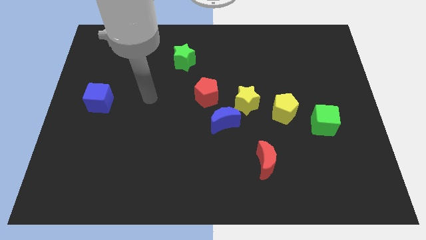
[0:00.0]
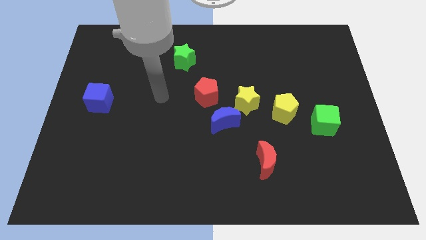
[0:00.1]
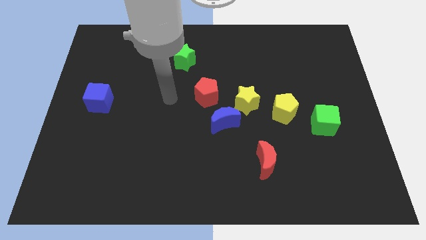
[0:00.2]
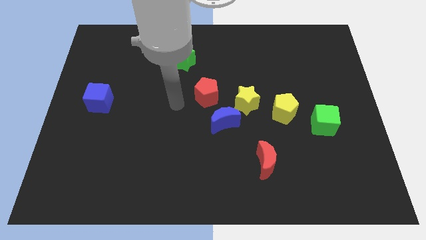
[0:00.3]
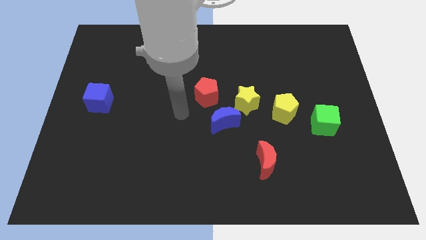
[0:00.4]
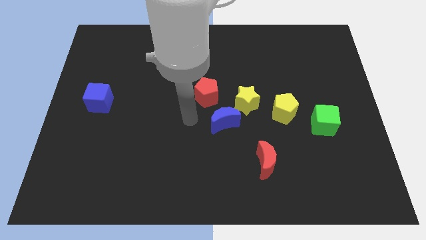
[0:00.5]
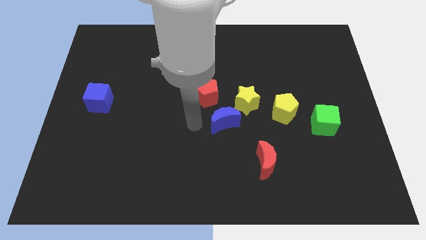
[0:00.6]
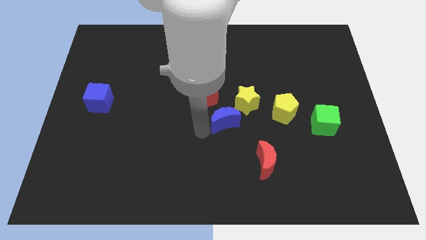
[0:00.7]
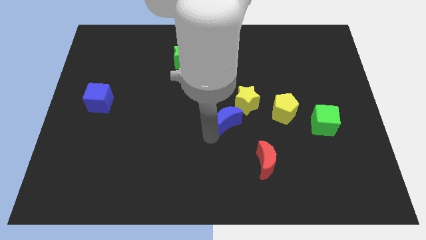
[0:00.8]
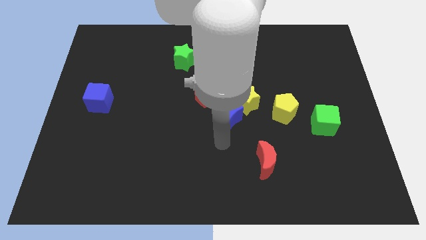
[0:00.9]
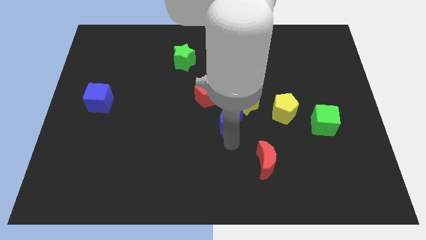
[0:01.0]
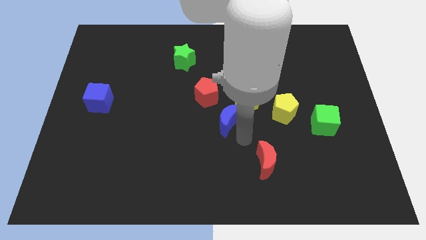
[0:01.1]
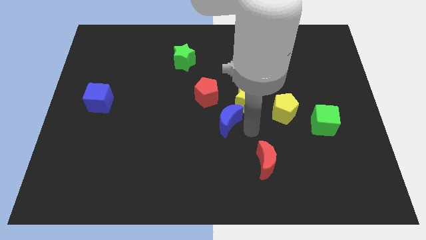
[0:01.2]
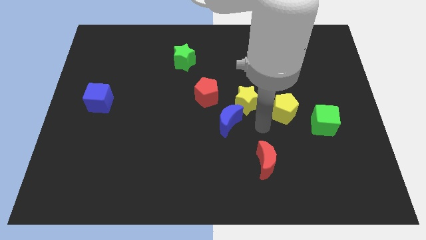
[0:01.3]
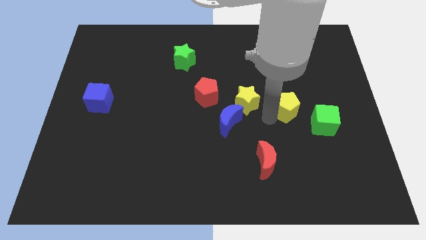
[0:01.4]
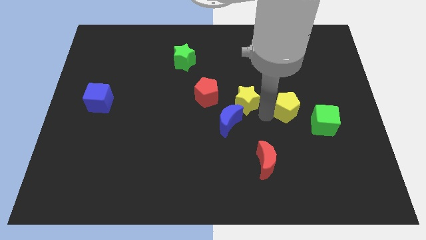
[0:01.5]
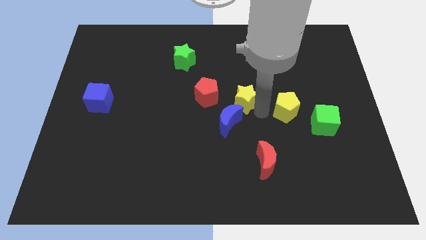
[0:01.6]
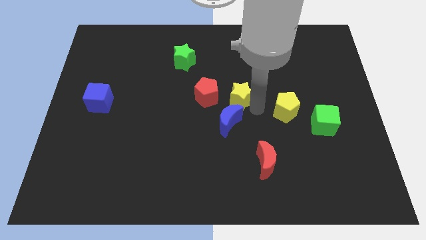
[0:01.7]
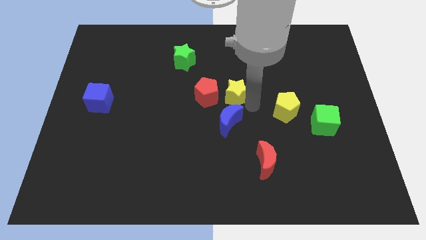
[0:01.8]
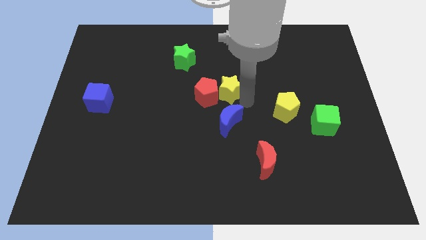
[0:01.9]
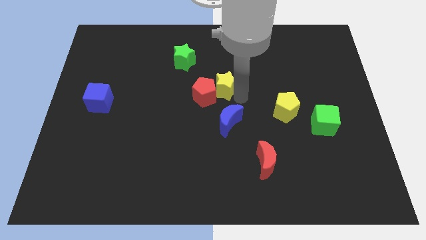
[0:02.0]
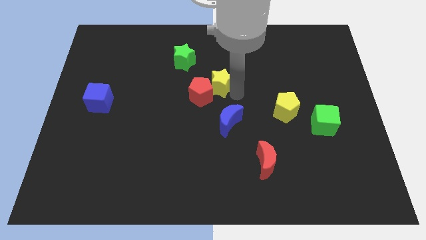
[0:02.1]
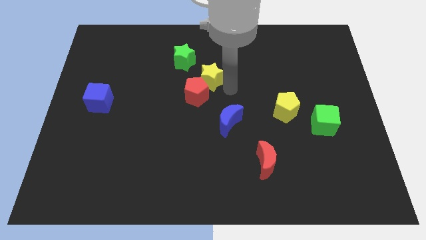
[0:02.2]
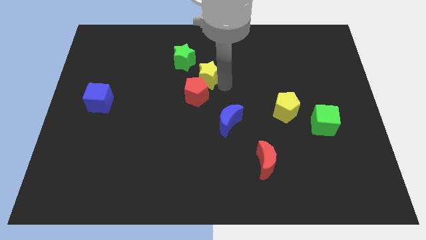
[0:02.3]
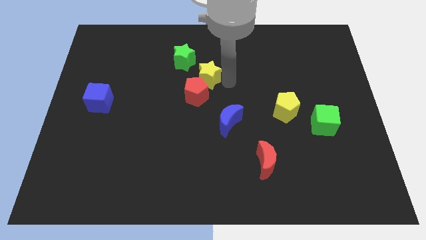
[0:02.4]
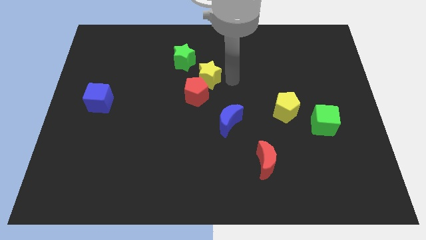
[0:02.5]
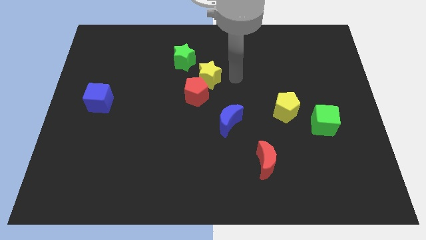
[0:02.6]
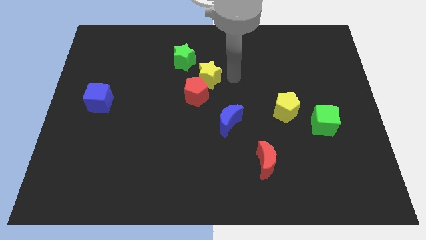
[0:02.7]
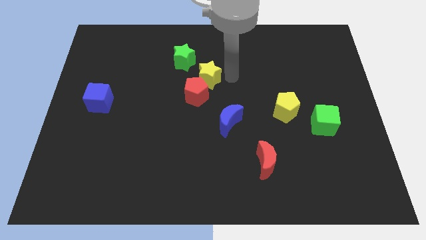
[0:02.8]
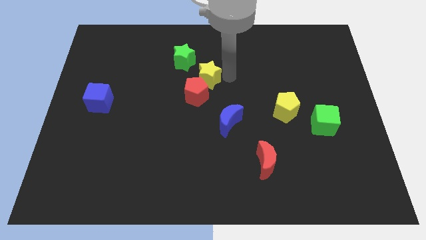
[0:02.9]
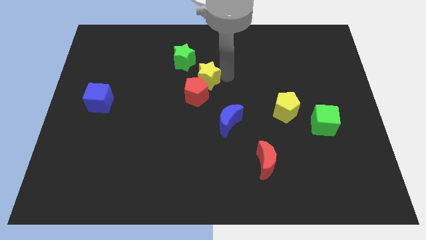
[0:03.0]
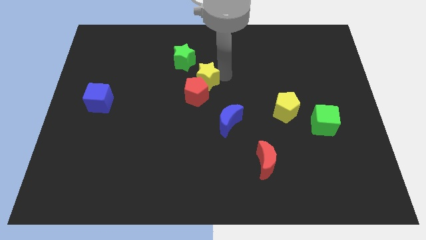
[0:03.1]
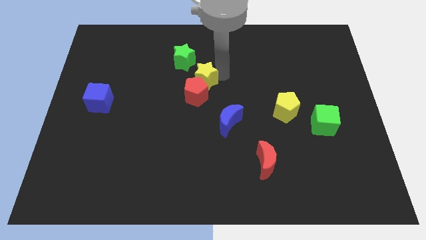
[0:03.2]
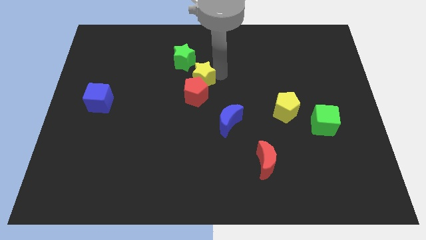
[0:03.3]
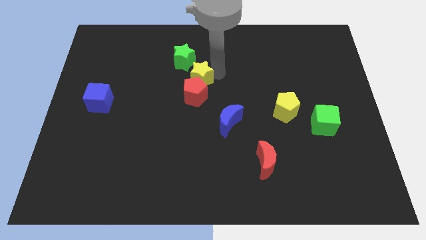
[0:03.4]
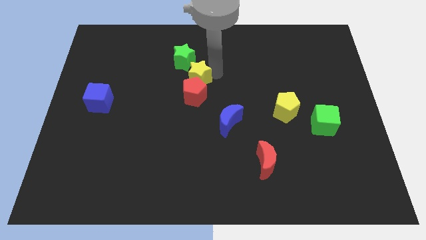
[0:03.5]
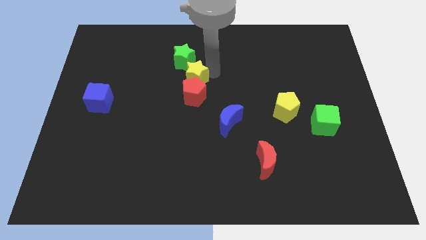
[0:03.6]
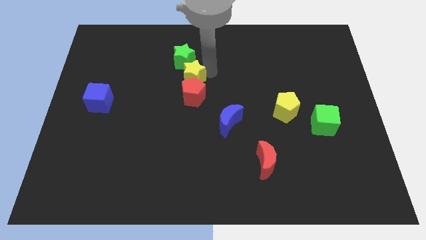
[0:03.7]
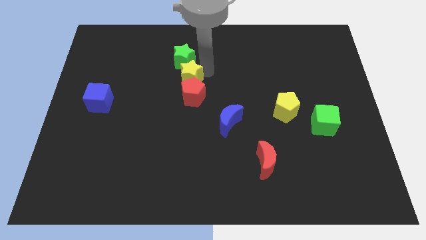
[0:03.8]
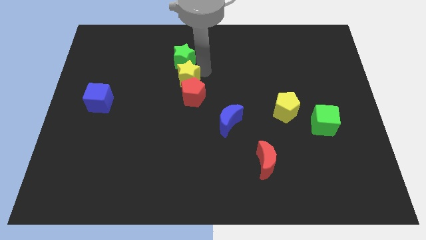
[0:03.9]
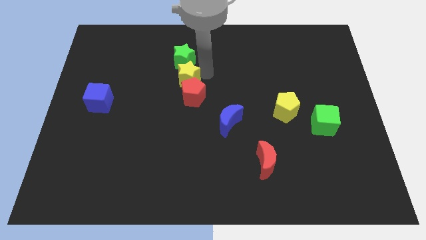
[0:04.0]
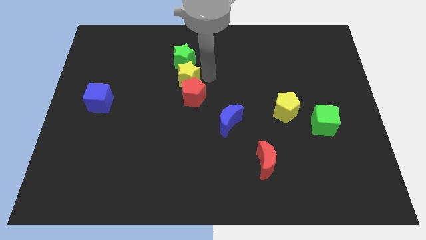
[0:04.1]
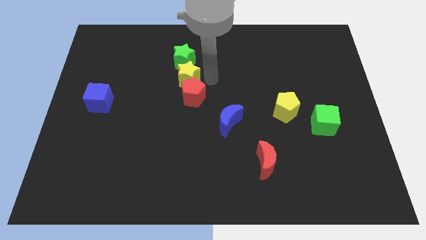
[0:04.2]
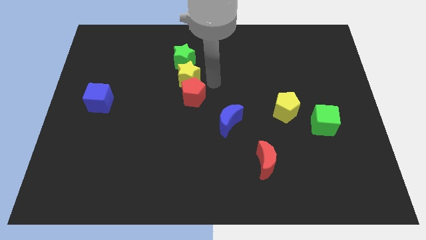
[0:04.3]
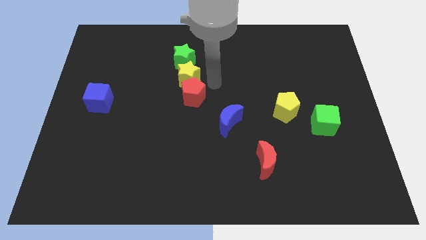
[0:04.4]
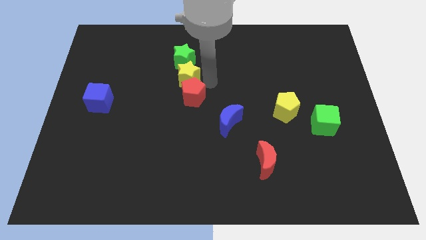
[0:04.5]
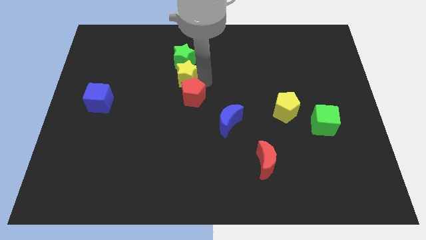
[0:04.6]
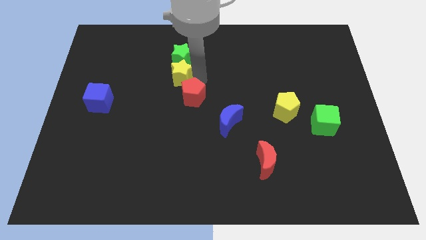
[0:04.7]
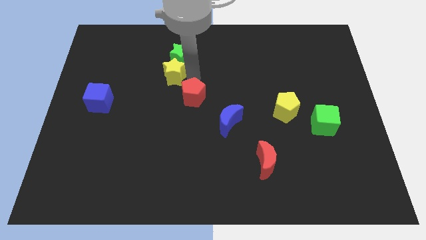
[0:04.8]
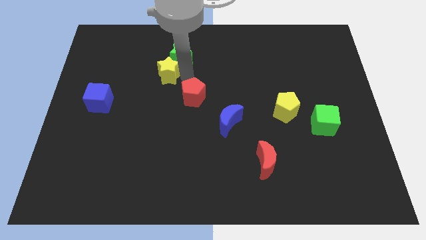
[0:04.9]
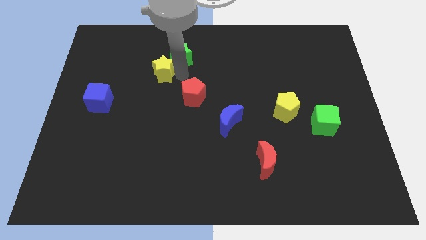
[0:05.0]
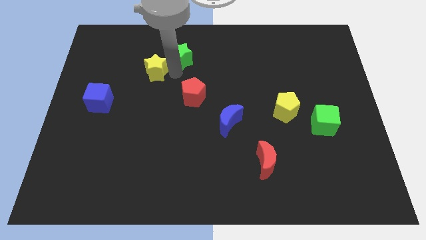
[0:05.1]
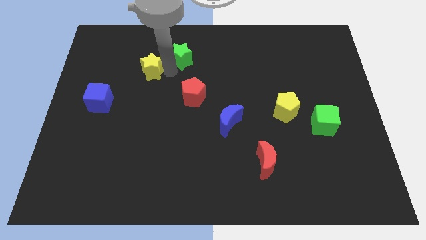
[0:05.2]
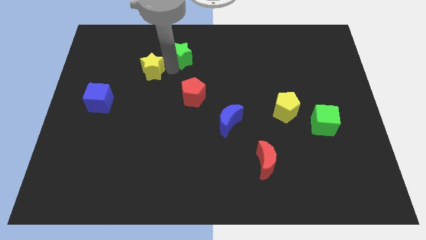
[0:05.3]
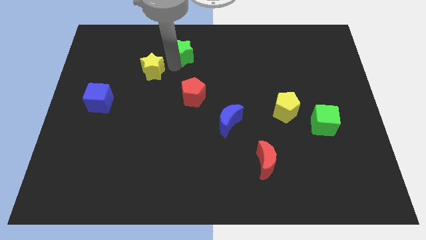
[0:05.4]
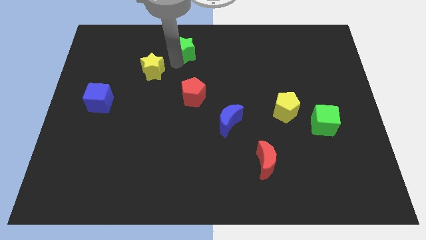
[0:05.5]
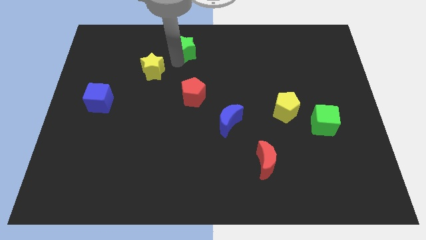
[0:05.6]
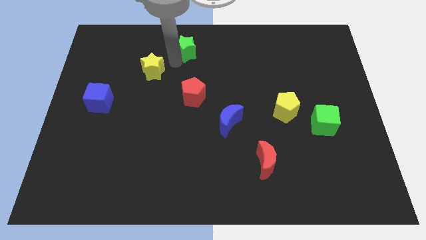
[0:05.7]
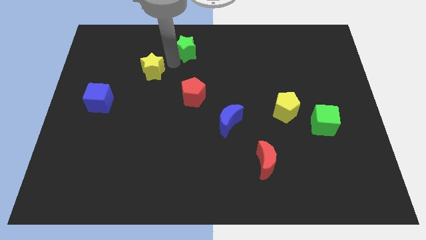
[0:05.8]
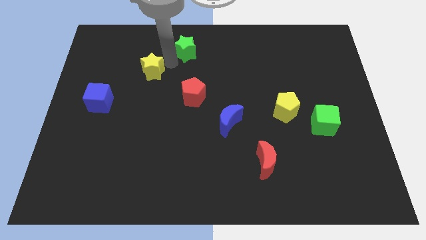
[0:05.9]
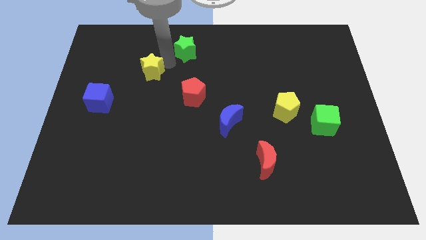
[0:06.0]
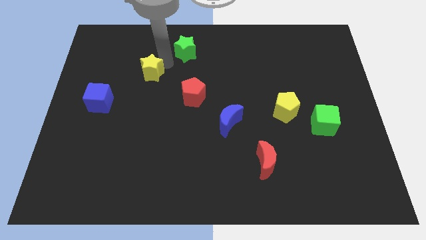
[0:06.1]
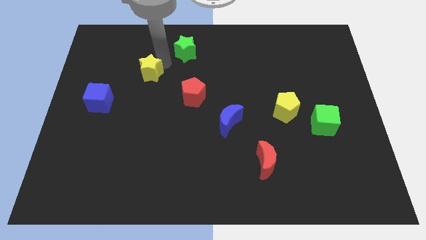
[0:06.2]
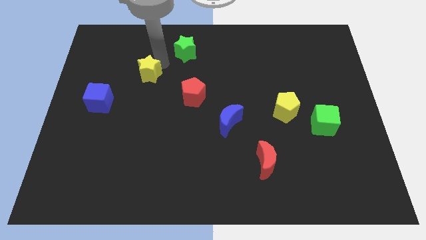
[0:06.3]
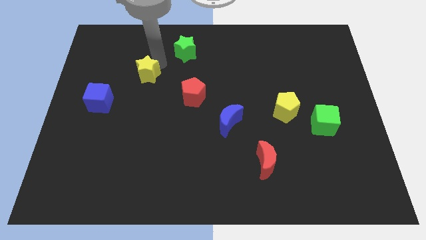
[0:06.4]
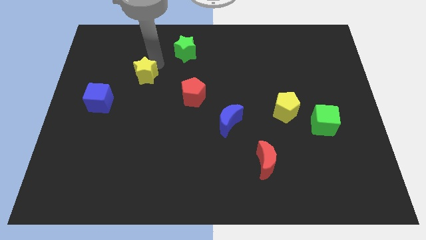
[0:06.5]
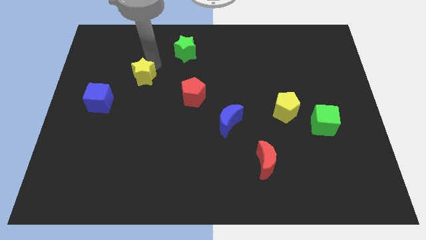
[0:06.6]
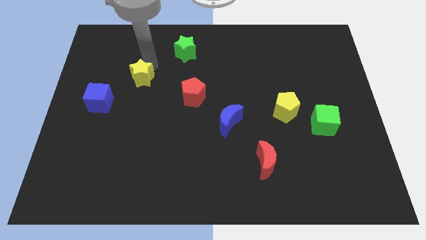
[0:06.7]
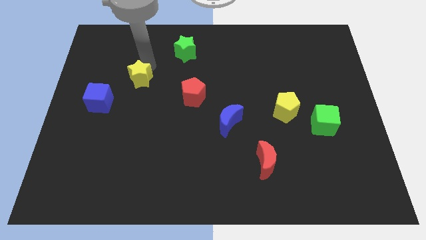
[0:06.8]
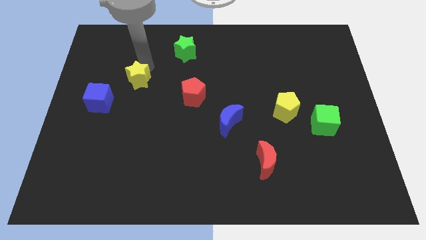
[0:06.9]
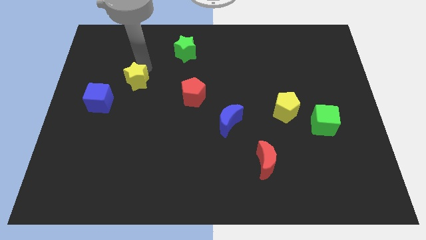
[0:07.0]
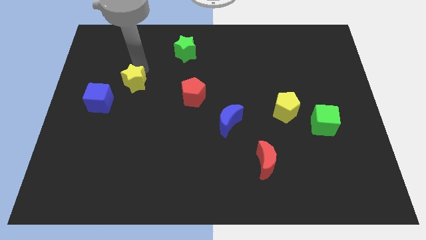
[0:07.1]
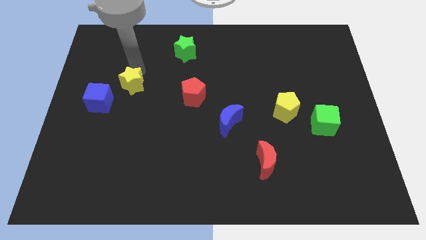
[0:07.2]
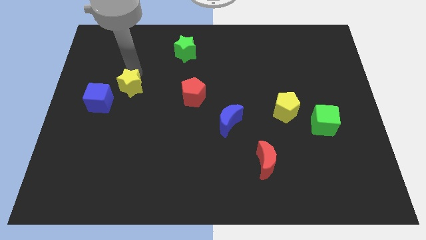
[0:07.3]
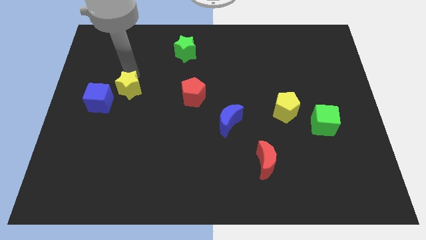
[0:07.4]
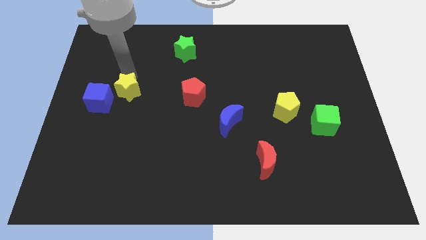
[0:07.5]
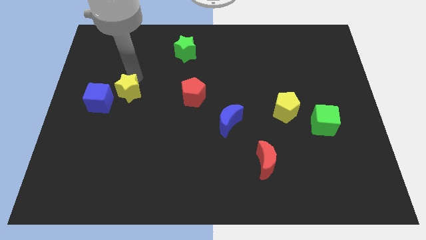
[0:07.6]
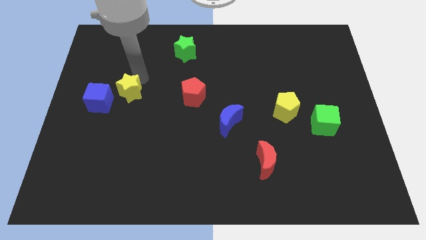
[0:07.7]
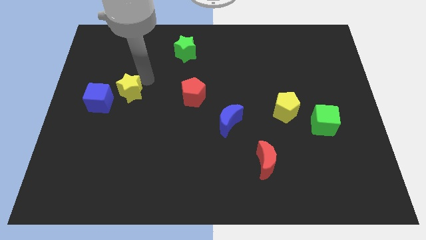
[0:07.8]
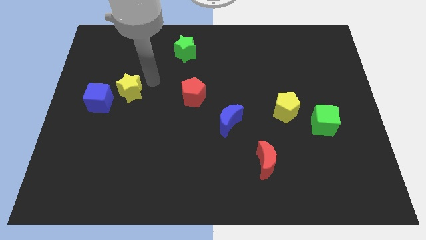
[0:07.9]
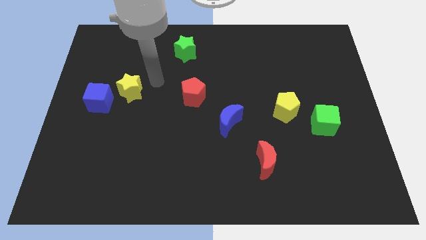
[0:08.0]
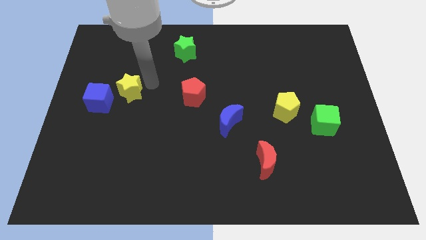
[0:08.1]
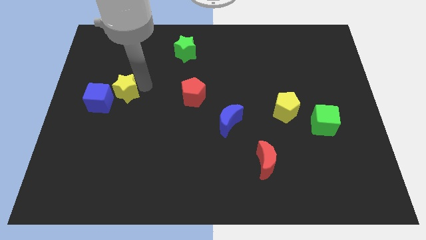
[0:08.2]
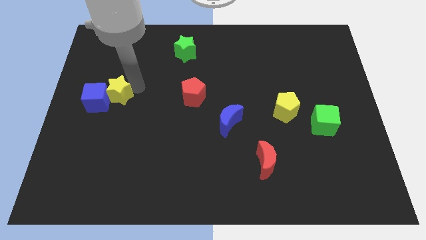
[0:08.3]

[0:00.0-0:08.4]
move the yellow star close to the blue cube
